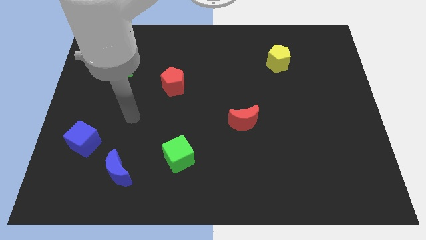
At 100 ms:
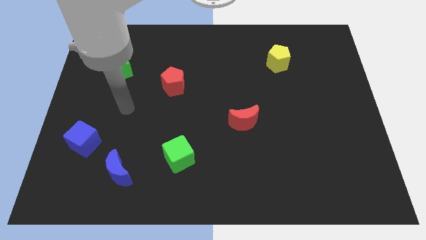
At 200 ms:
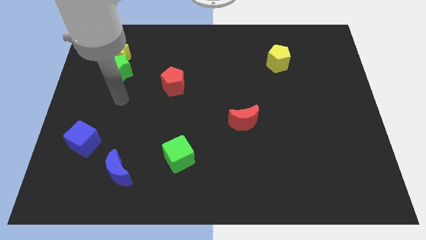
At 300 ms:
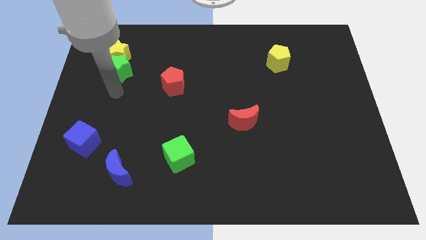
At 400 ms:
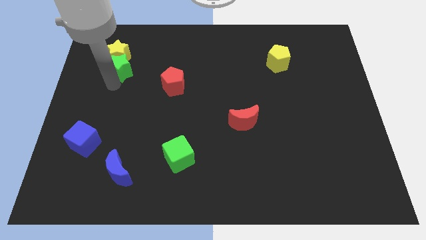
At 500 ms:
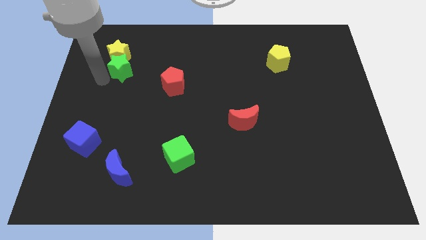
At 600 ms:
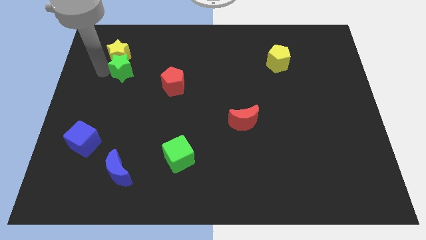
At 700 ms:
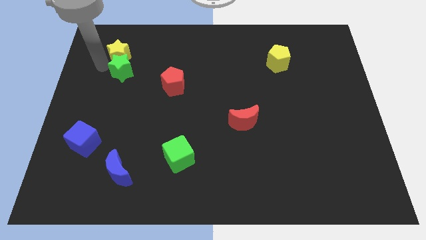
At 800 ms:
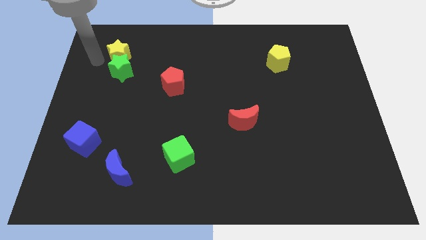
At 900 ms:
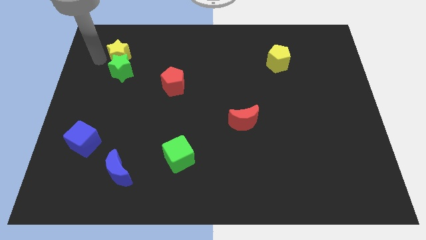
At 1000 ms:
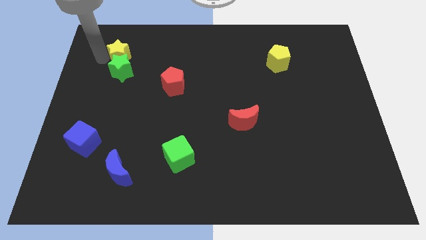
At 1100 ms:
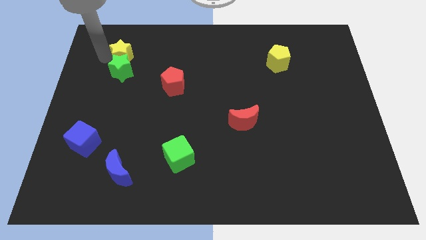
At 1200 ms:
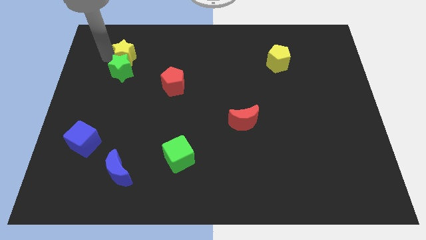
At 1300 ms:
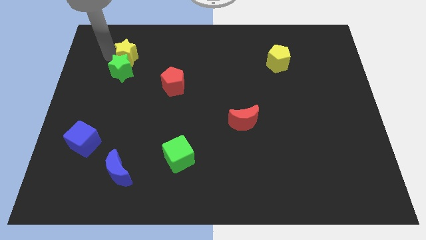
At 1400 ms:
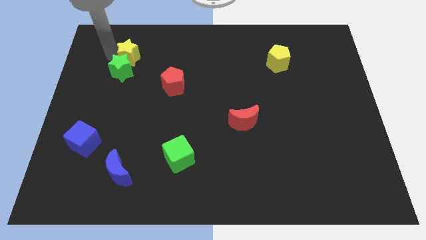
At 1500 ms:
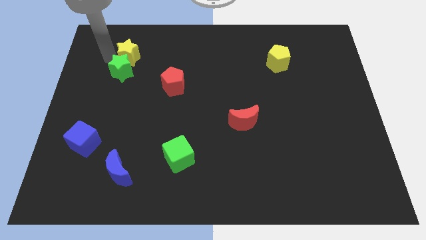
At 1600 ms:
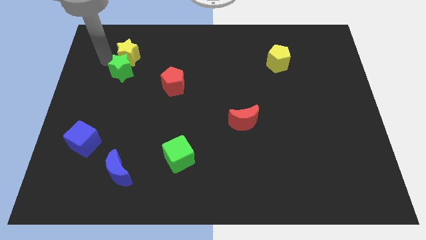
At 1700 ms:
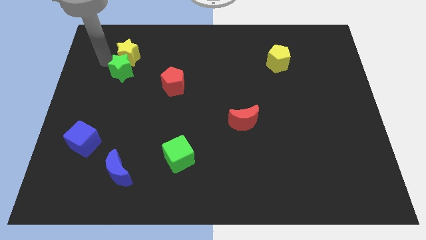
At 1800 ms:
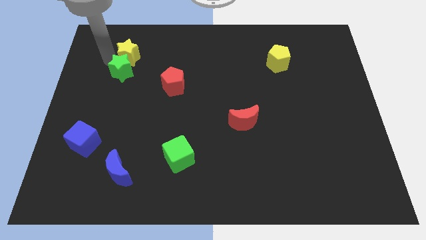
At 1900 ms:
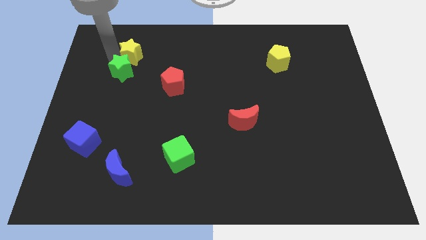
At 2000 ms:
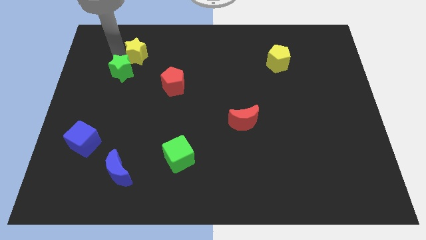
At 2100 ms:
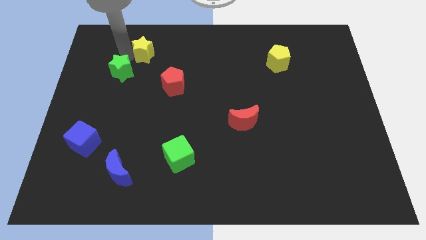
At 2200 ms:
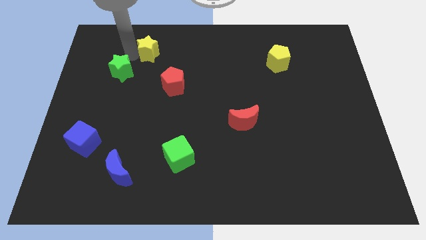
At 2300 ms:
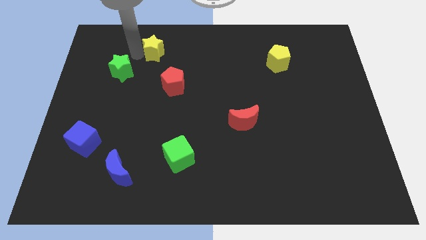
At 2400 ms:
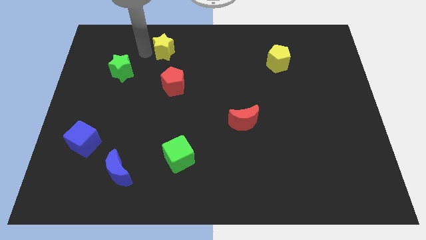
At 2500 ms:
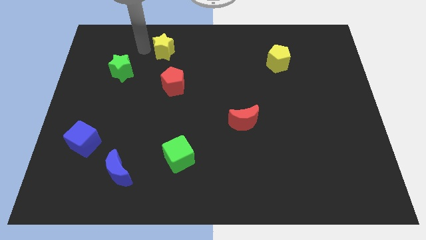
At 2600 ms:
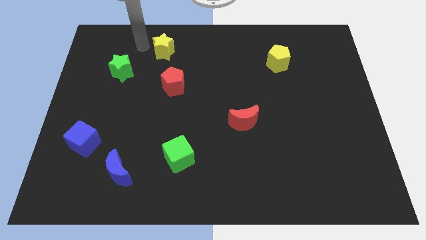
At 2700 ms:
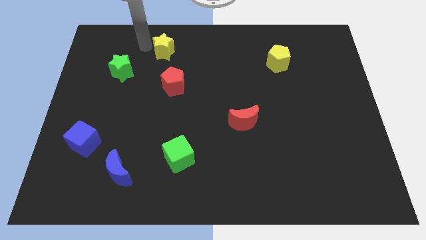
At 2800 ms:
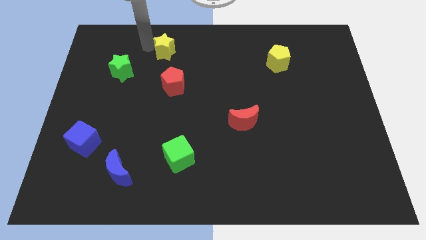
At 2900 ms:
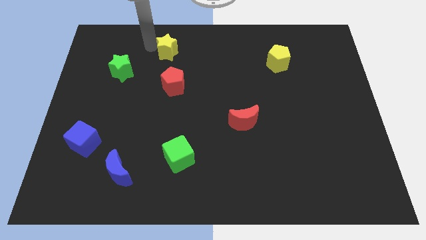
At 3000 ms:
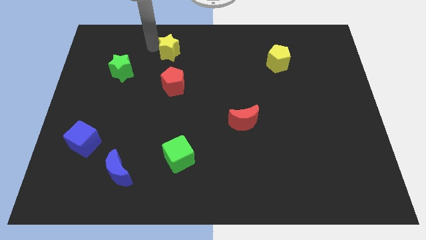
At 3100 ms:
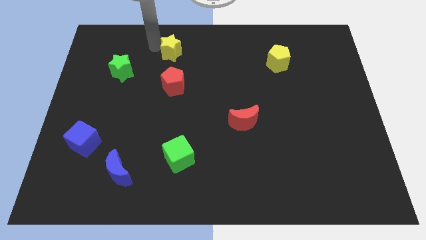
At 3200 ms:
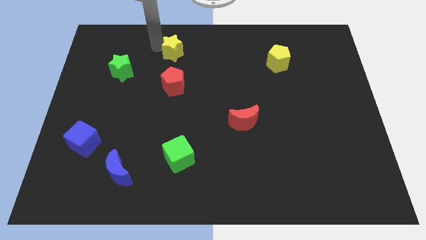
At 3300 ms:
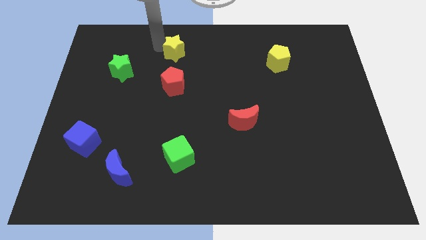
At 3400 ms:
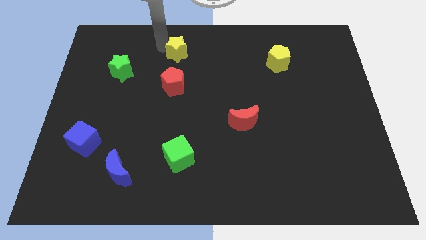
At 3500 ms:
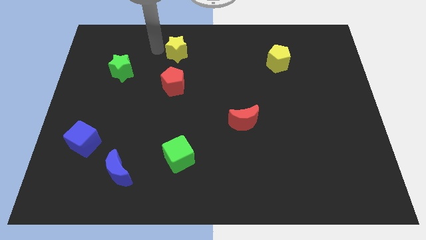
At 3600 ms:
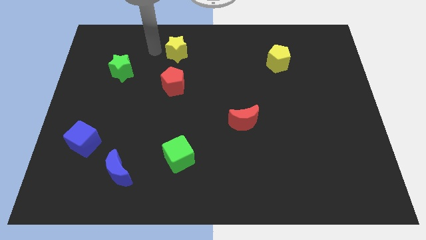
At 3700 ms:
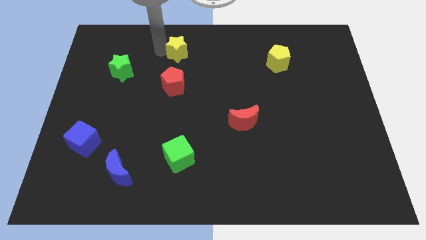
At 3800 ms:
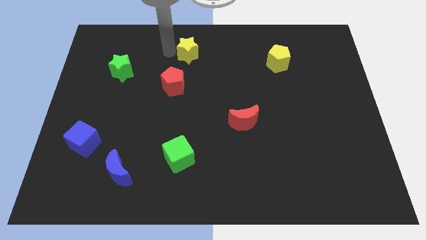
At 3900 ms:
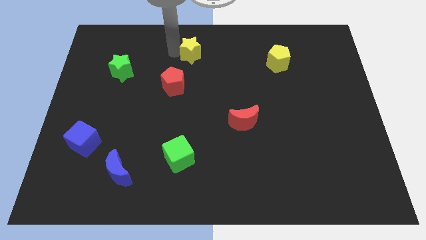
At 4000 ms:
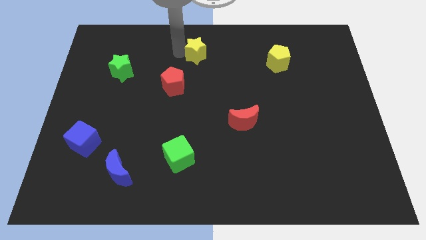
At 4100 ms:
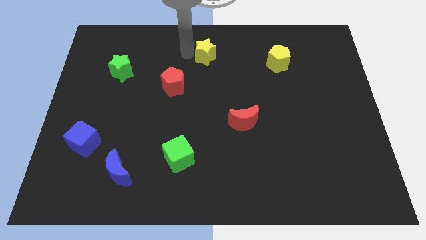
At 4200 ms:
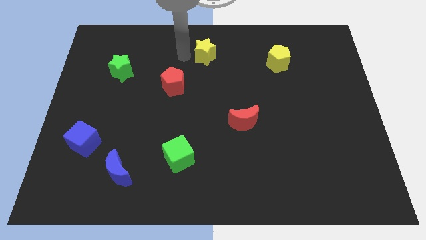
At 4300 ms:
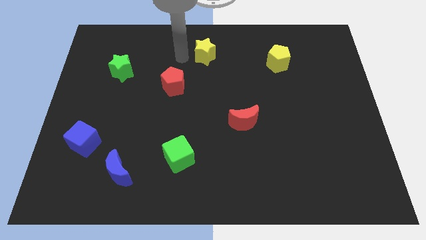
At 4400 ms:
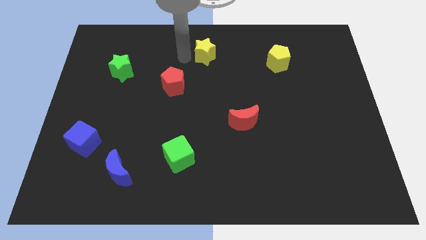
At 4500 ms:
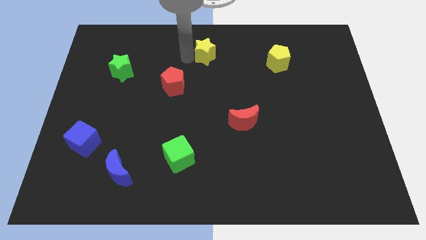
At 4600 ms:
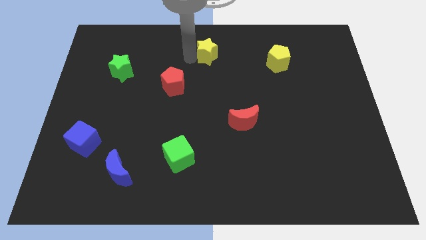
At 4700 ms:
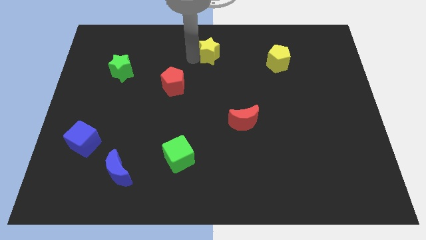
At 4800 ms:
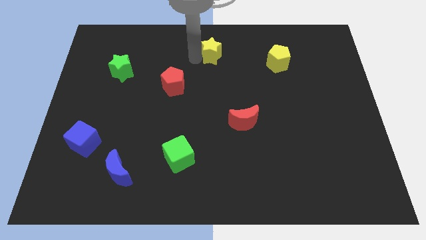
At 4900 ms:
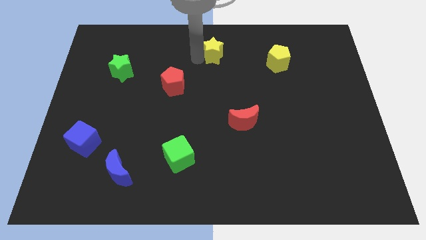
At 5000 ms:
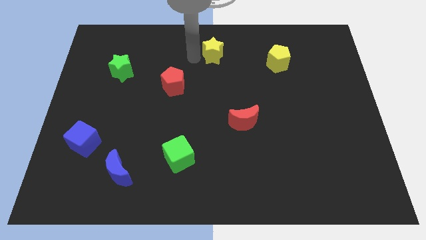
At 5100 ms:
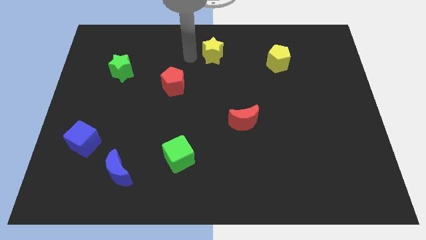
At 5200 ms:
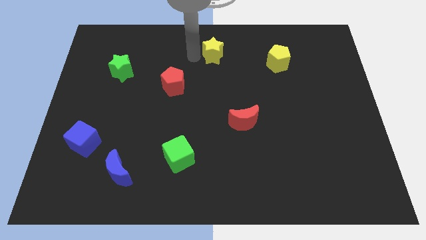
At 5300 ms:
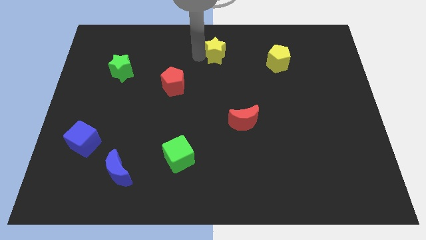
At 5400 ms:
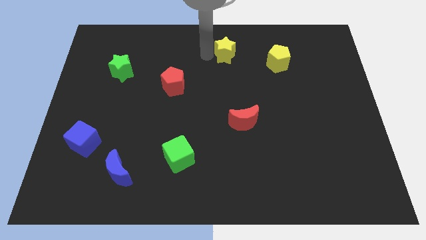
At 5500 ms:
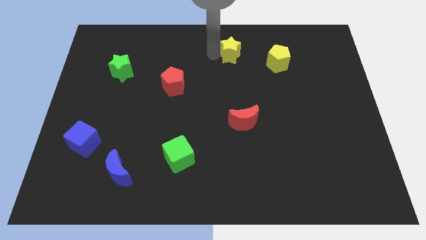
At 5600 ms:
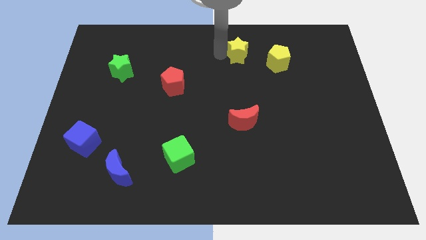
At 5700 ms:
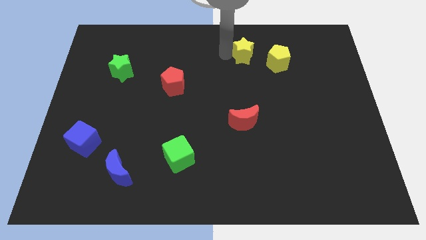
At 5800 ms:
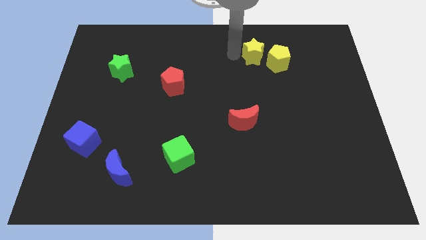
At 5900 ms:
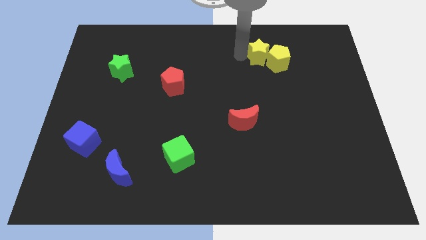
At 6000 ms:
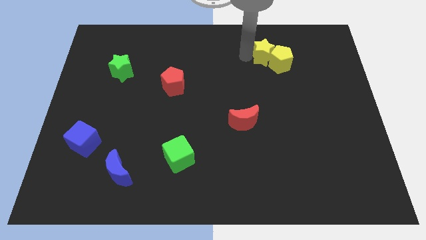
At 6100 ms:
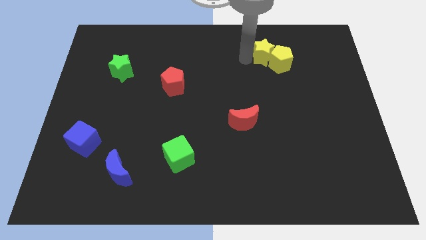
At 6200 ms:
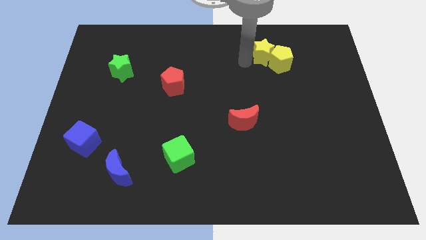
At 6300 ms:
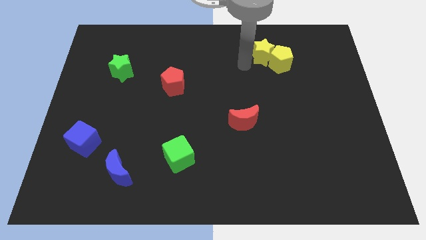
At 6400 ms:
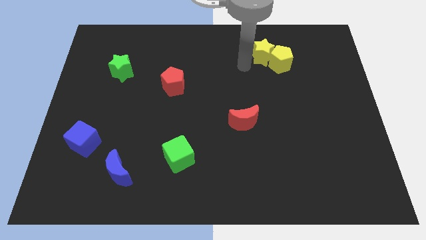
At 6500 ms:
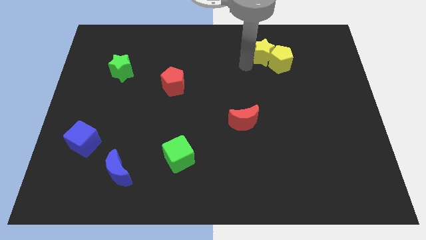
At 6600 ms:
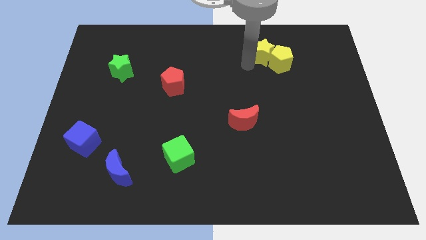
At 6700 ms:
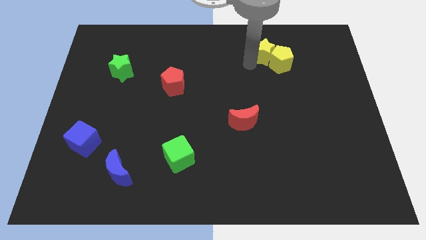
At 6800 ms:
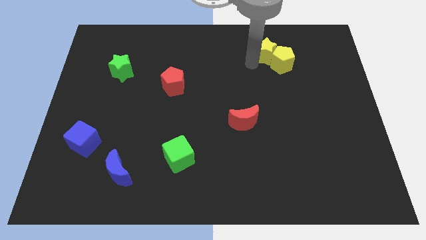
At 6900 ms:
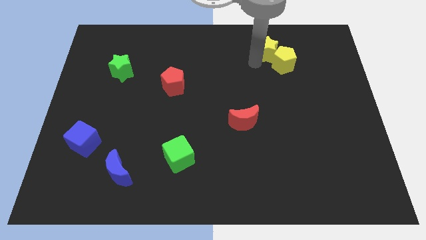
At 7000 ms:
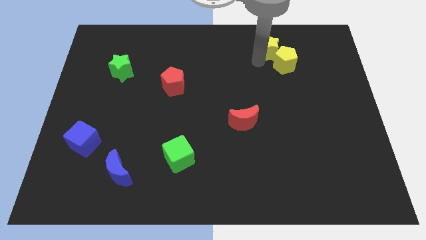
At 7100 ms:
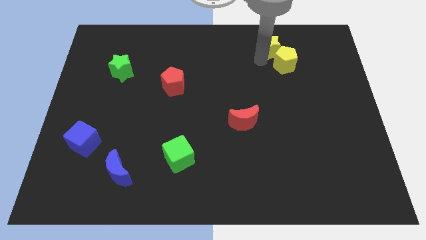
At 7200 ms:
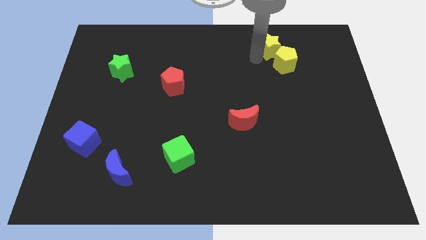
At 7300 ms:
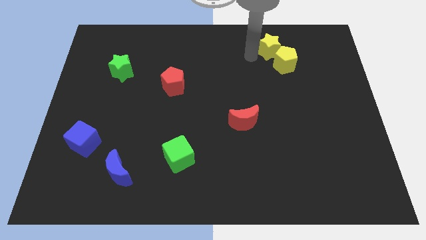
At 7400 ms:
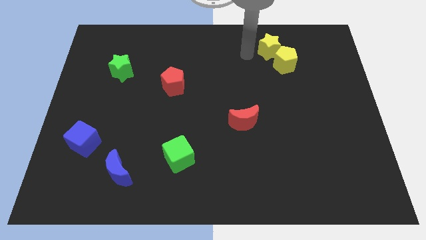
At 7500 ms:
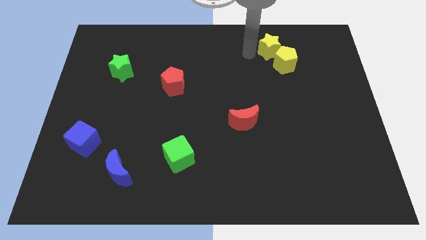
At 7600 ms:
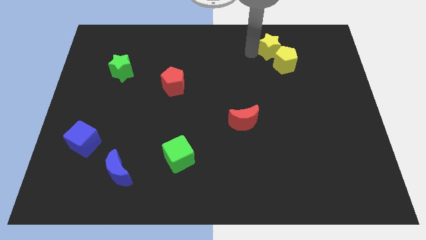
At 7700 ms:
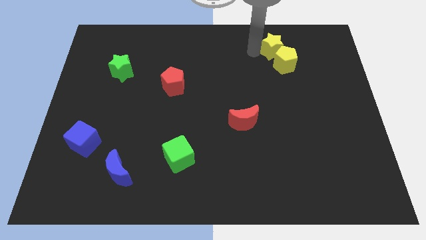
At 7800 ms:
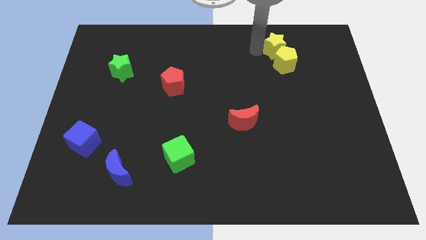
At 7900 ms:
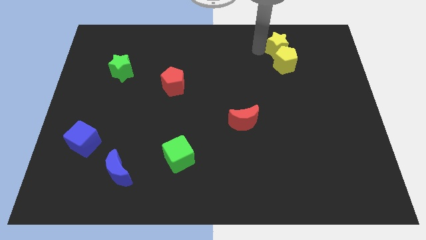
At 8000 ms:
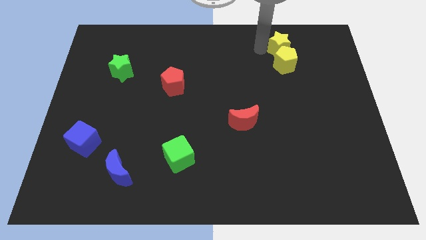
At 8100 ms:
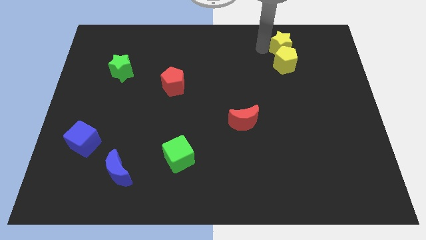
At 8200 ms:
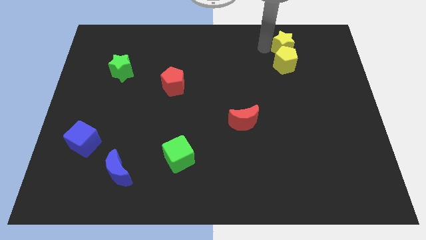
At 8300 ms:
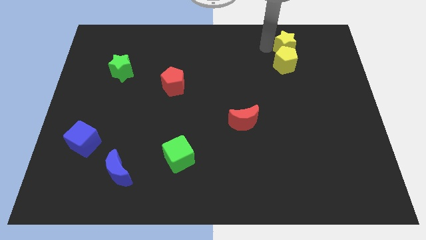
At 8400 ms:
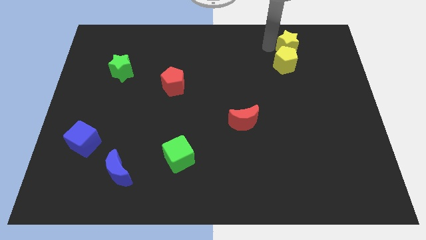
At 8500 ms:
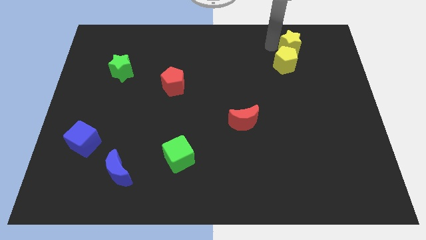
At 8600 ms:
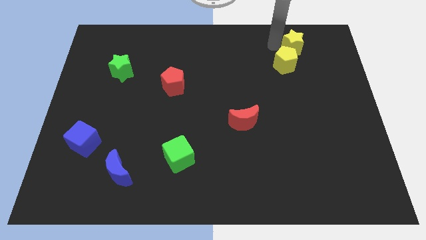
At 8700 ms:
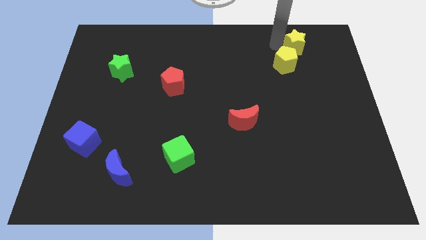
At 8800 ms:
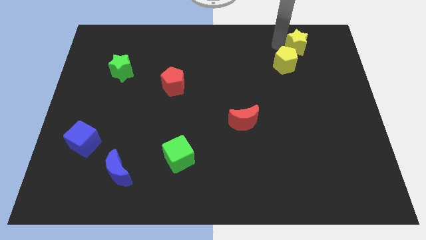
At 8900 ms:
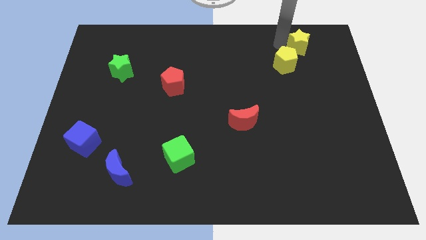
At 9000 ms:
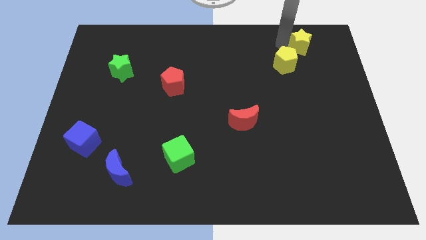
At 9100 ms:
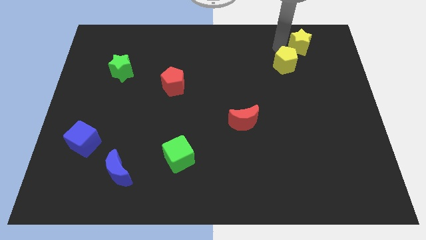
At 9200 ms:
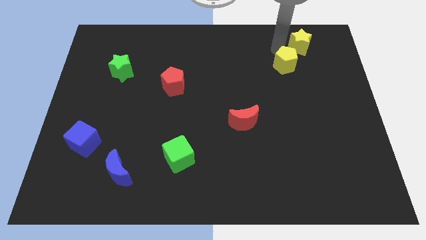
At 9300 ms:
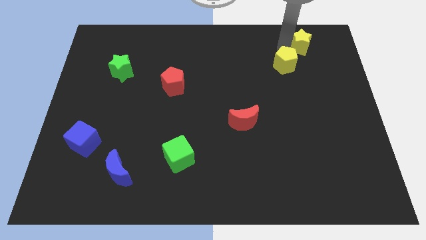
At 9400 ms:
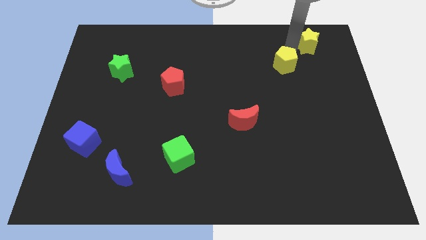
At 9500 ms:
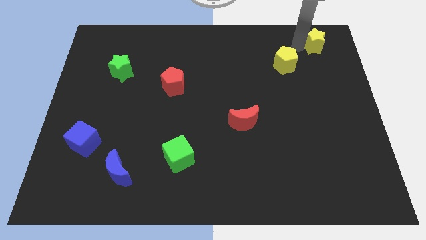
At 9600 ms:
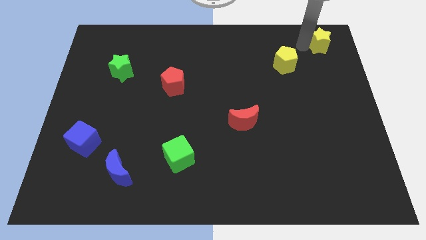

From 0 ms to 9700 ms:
slide the yellow star to the top right
